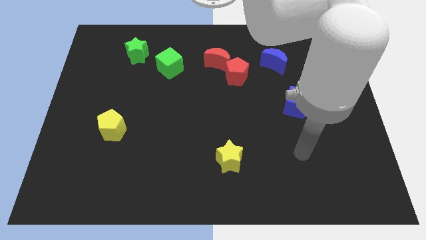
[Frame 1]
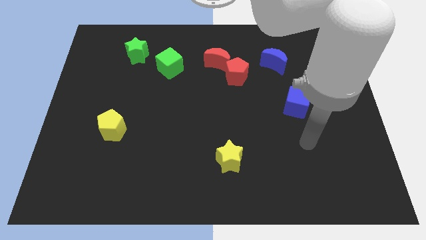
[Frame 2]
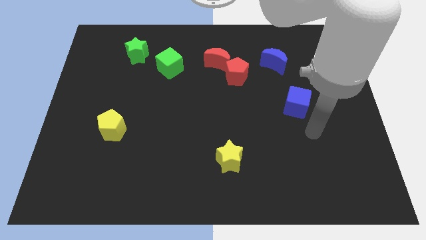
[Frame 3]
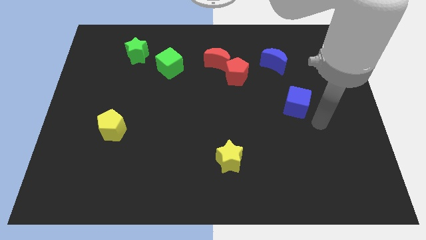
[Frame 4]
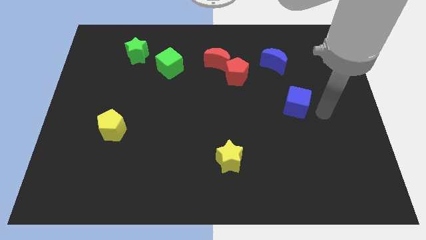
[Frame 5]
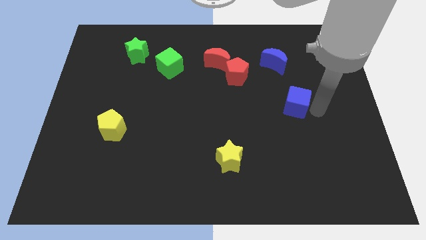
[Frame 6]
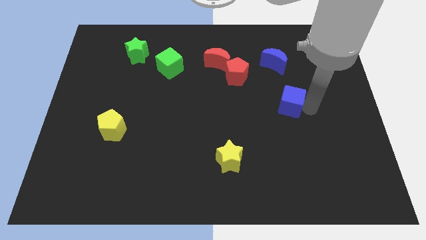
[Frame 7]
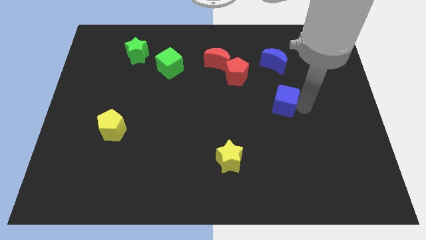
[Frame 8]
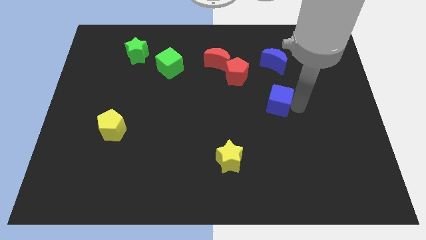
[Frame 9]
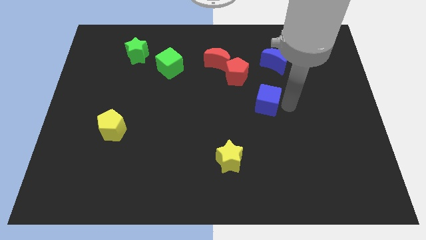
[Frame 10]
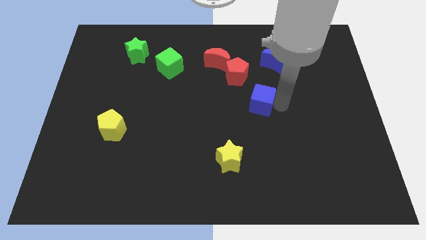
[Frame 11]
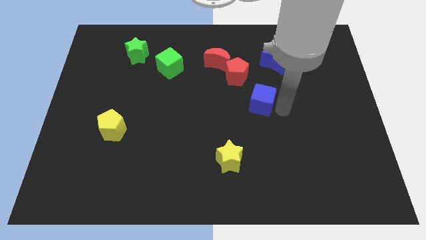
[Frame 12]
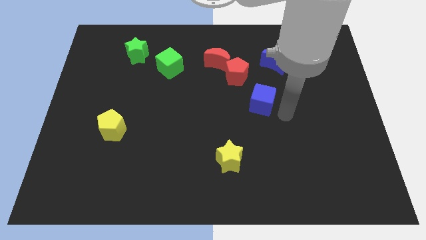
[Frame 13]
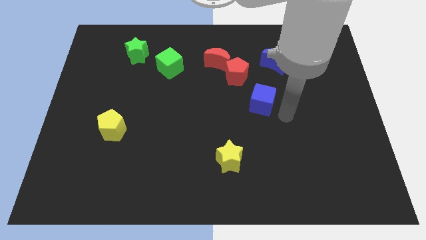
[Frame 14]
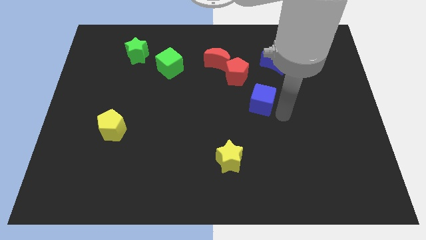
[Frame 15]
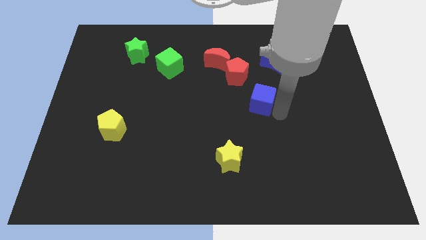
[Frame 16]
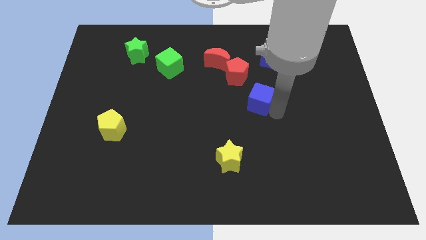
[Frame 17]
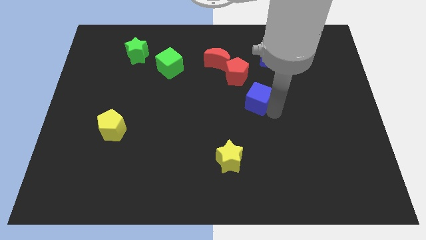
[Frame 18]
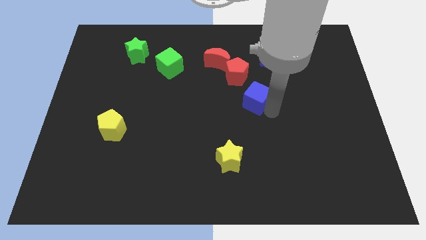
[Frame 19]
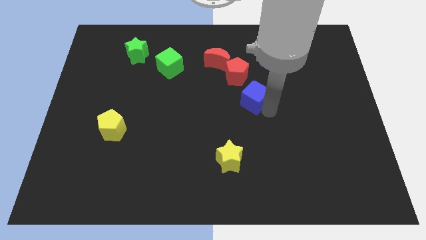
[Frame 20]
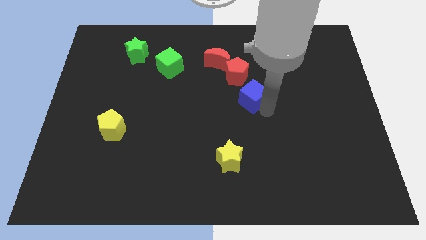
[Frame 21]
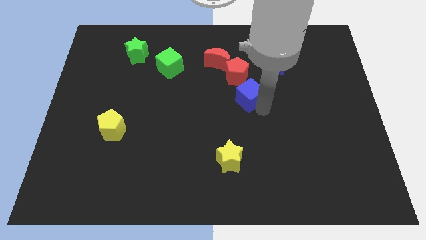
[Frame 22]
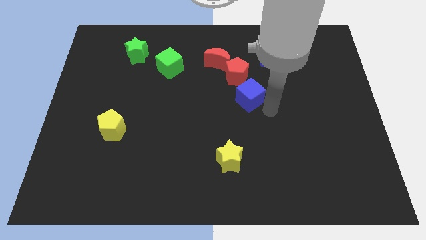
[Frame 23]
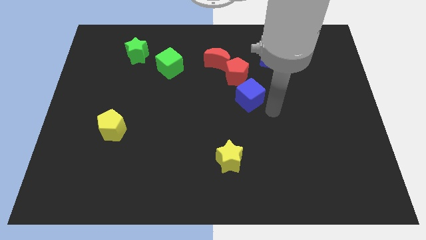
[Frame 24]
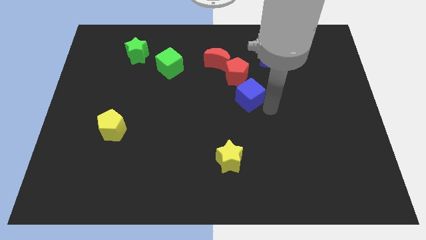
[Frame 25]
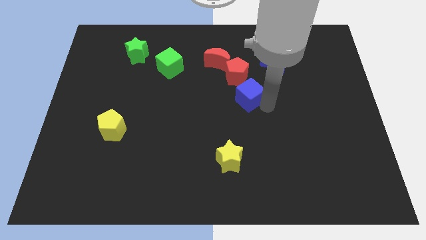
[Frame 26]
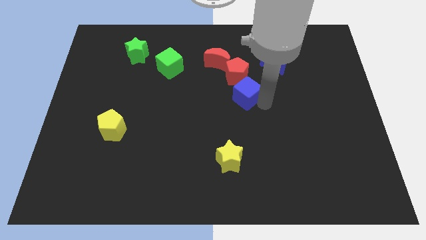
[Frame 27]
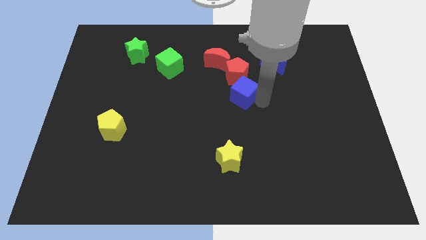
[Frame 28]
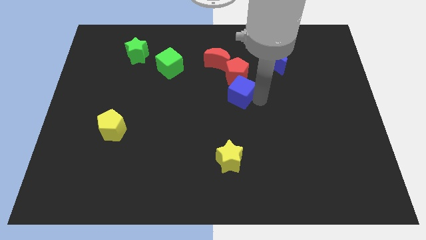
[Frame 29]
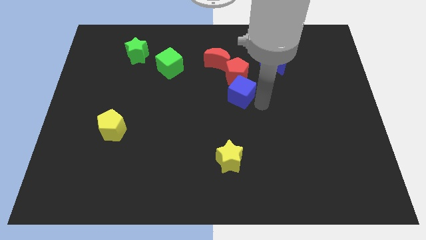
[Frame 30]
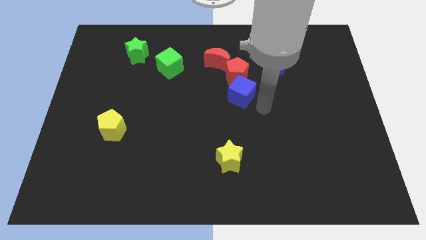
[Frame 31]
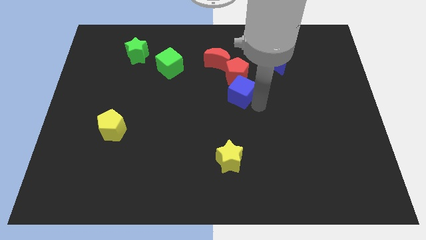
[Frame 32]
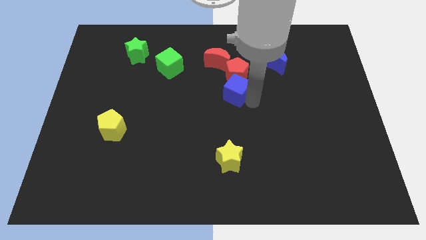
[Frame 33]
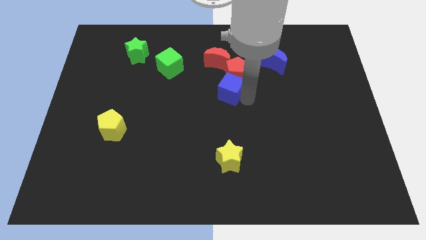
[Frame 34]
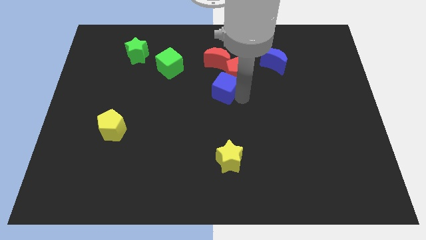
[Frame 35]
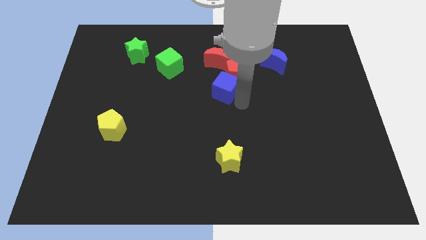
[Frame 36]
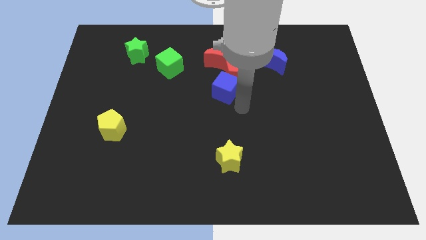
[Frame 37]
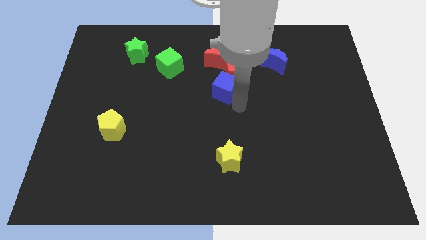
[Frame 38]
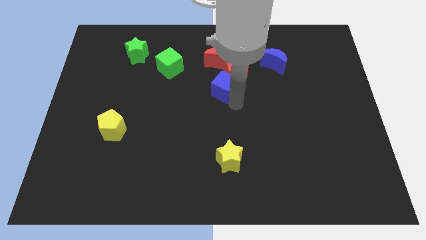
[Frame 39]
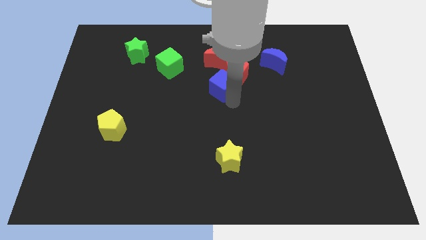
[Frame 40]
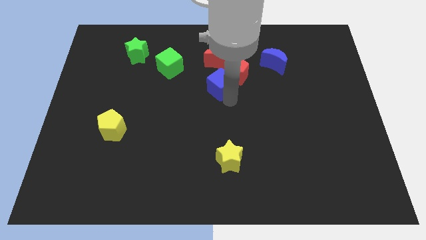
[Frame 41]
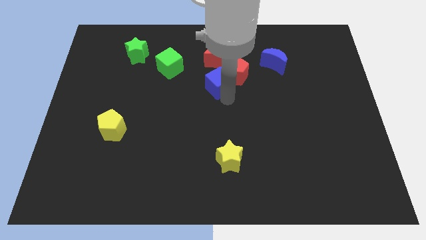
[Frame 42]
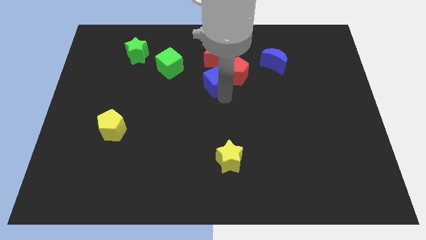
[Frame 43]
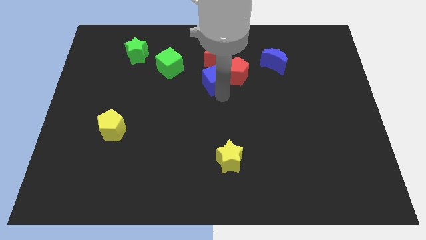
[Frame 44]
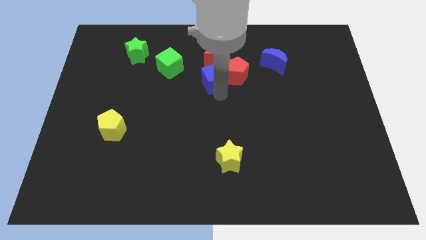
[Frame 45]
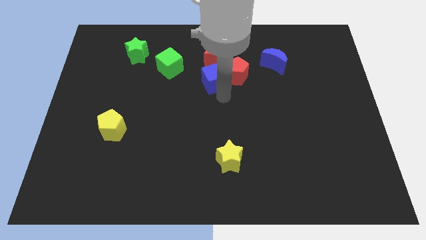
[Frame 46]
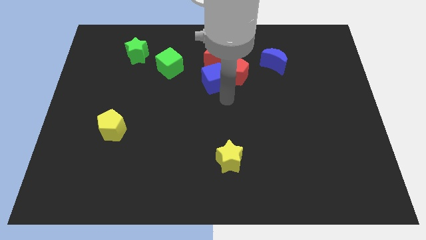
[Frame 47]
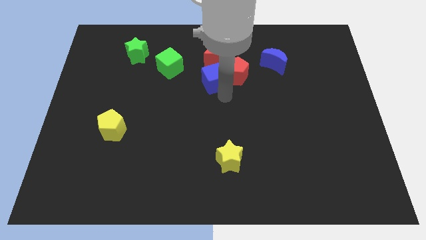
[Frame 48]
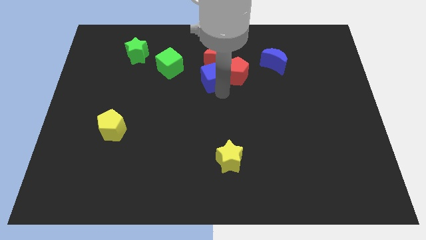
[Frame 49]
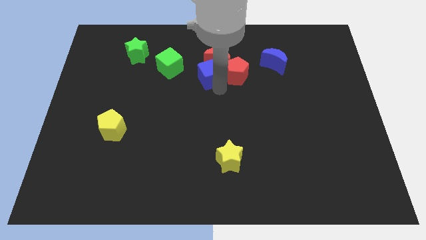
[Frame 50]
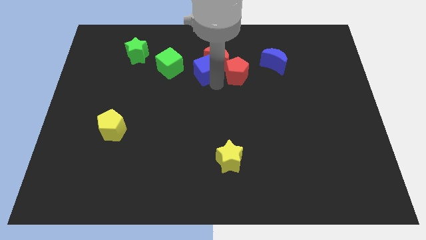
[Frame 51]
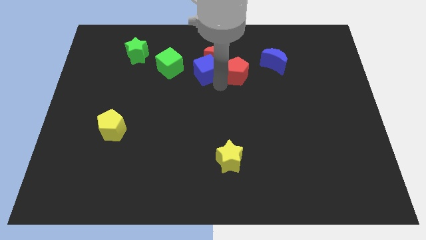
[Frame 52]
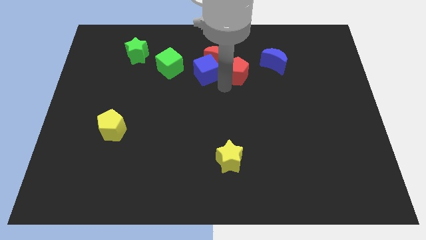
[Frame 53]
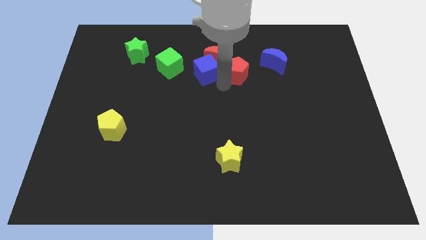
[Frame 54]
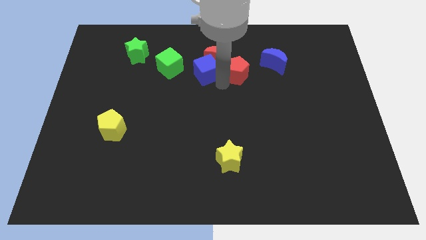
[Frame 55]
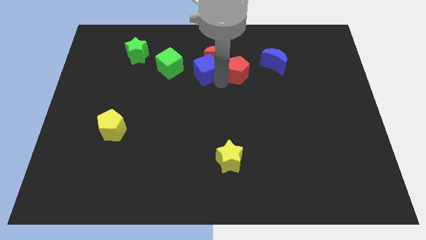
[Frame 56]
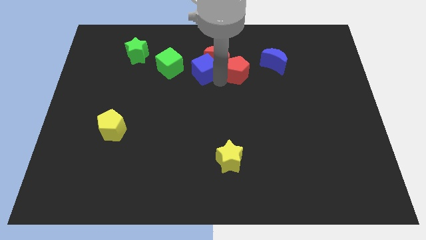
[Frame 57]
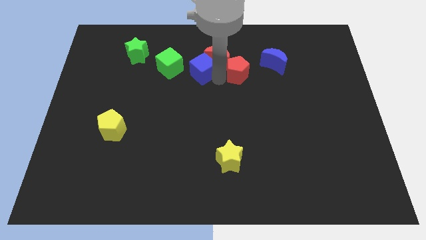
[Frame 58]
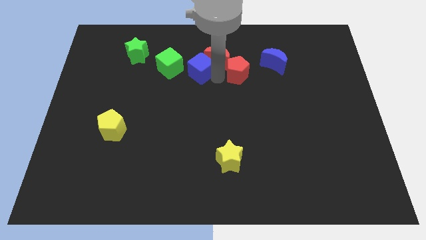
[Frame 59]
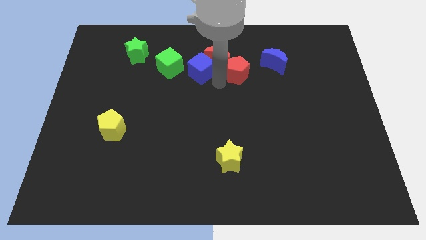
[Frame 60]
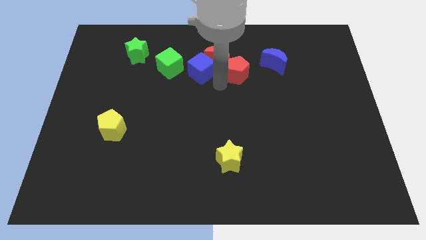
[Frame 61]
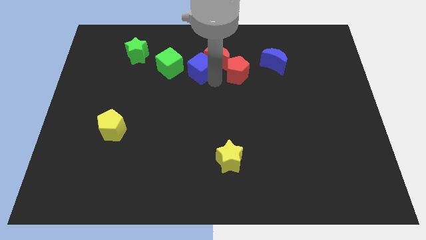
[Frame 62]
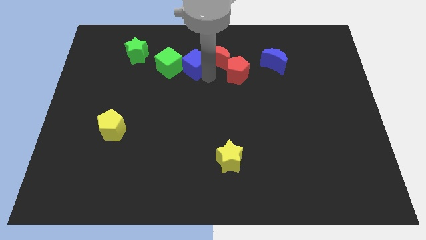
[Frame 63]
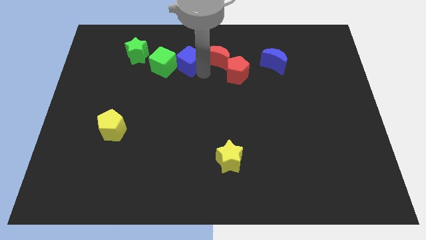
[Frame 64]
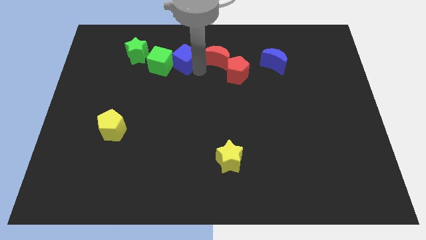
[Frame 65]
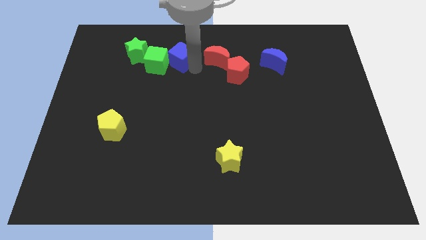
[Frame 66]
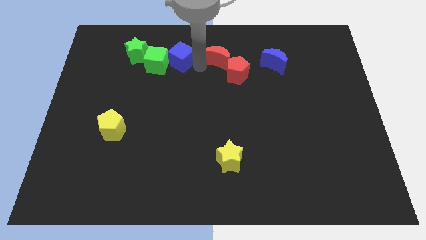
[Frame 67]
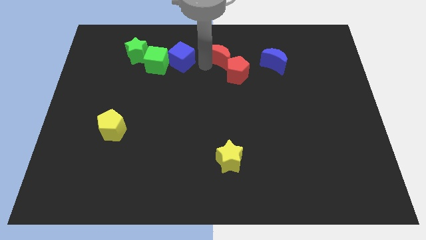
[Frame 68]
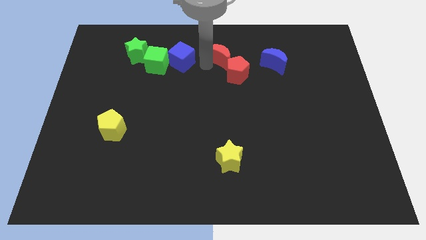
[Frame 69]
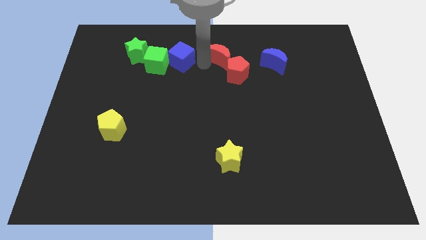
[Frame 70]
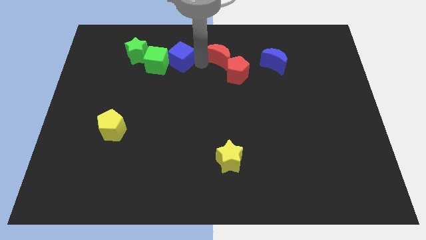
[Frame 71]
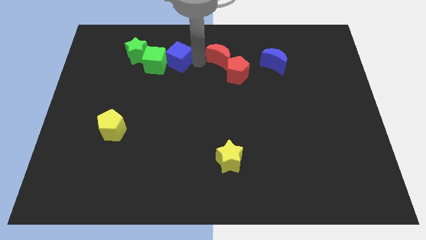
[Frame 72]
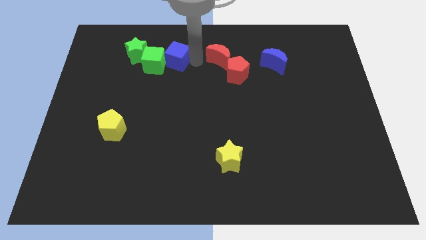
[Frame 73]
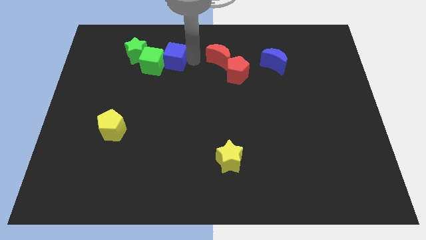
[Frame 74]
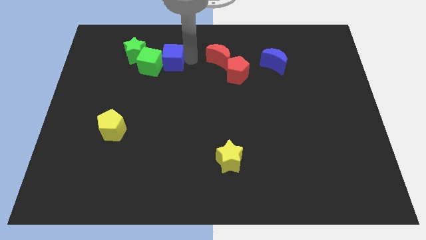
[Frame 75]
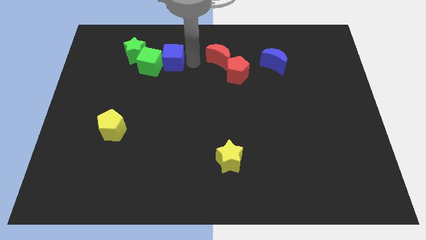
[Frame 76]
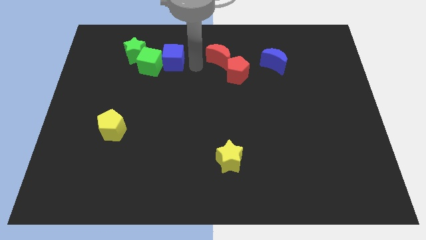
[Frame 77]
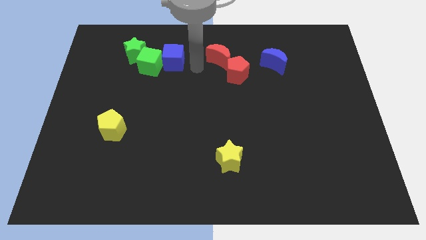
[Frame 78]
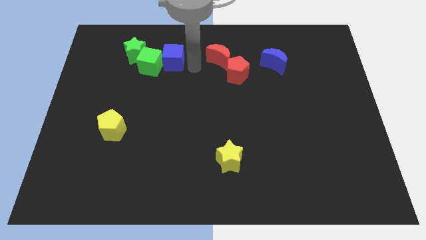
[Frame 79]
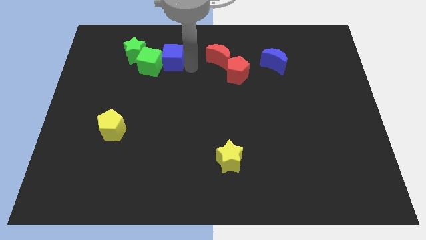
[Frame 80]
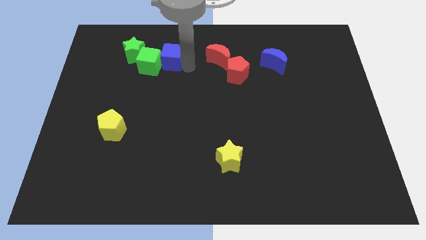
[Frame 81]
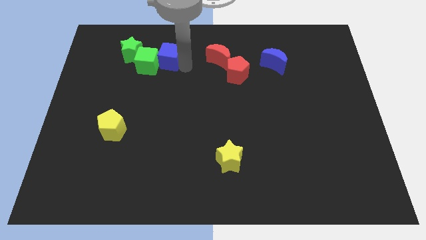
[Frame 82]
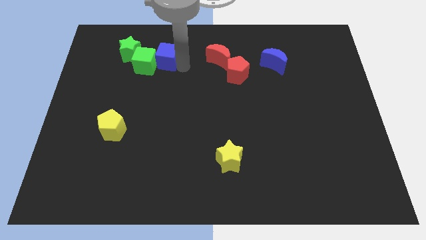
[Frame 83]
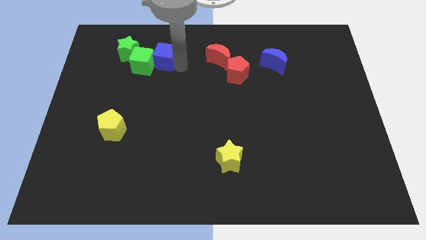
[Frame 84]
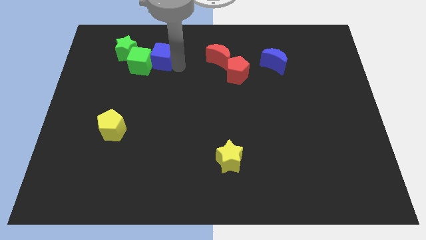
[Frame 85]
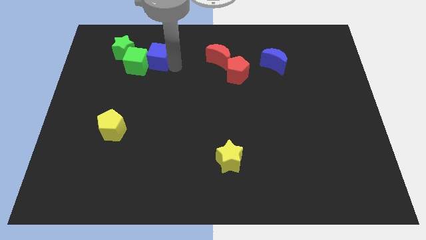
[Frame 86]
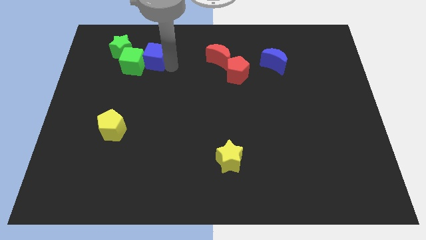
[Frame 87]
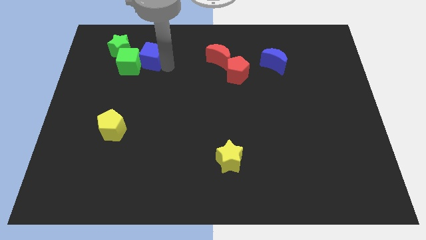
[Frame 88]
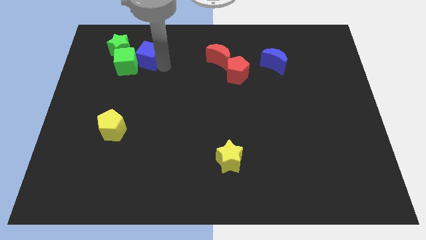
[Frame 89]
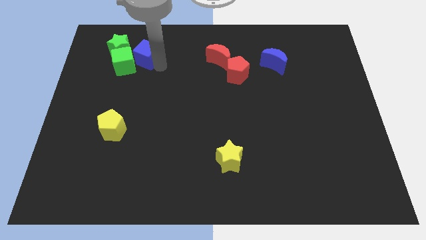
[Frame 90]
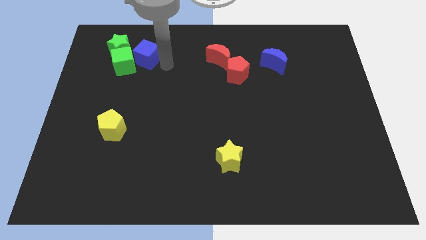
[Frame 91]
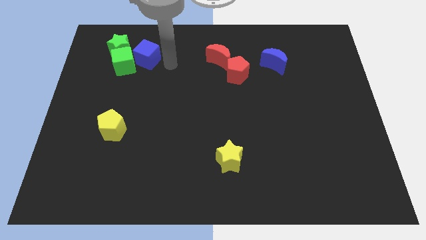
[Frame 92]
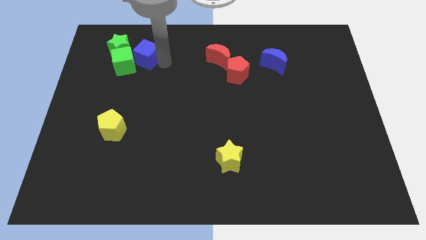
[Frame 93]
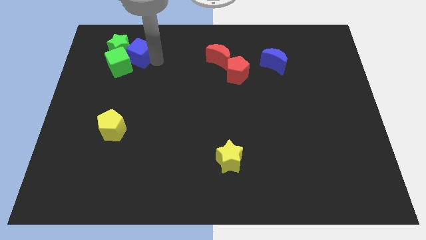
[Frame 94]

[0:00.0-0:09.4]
put the blue cube towards the green star
